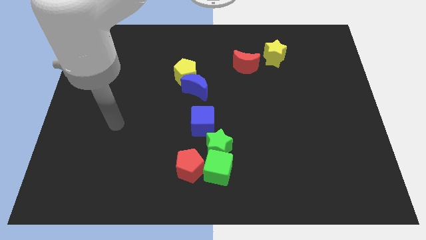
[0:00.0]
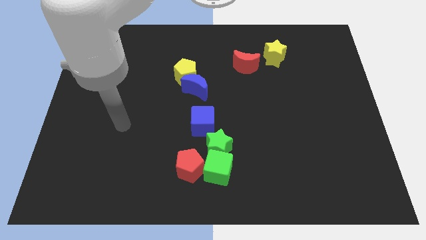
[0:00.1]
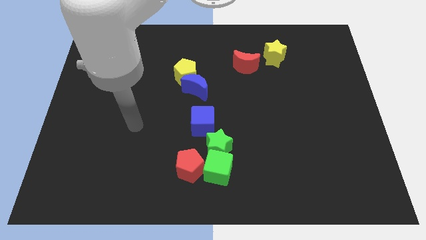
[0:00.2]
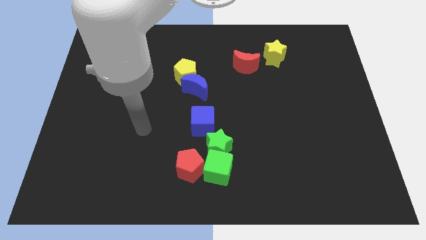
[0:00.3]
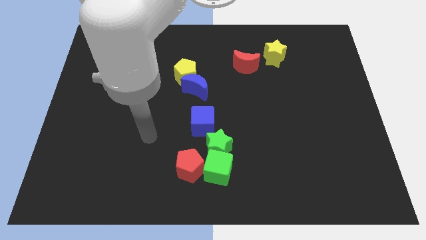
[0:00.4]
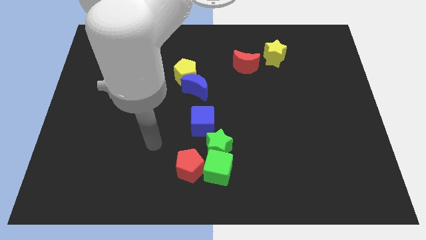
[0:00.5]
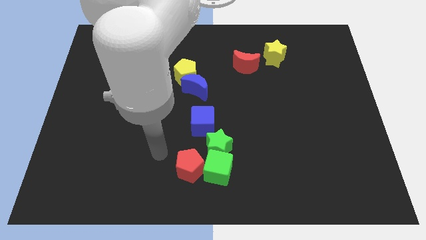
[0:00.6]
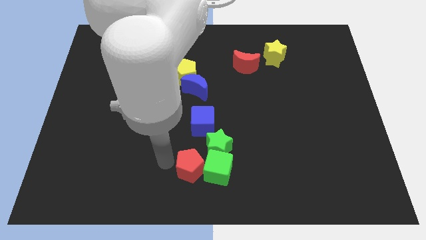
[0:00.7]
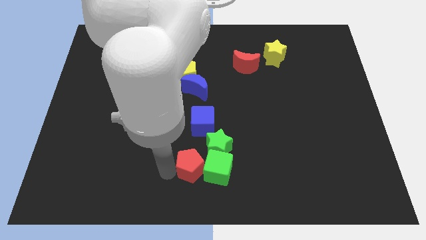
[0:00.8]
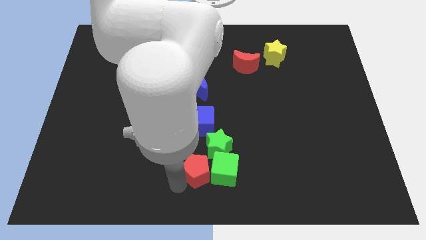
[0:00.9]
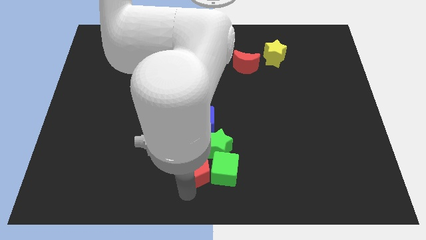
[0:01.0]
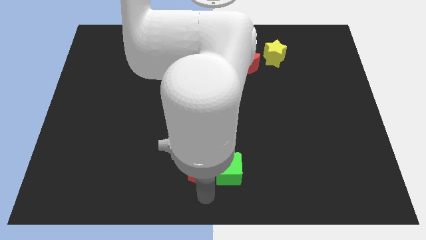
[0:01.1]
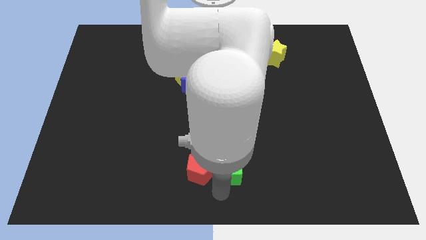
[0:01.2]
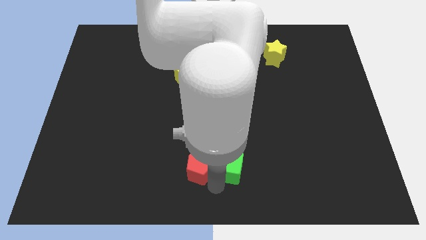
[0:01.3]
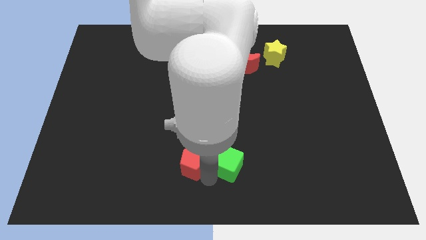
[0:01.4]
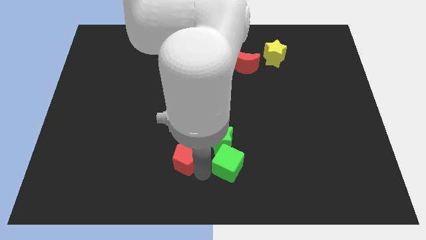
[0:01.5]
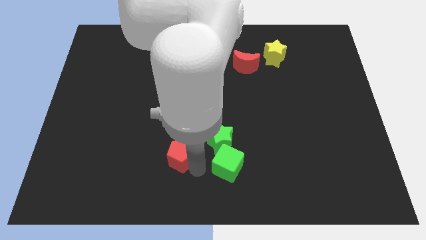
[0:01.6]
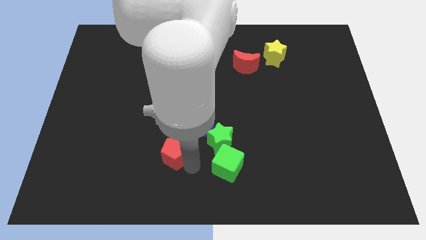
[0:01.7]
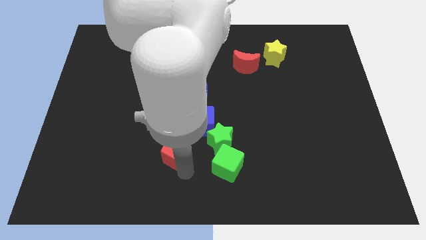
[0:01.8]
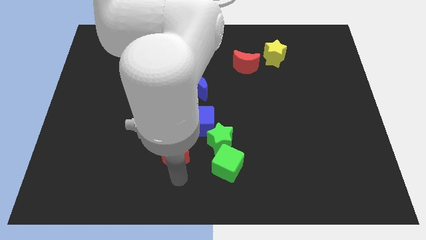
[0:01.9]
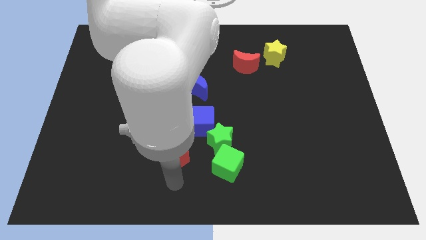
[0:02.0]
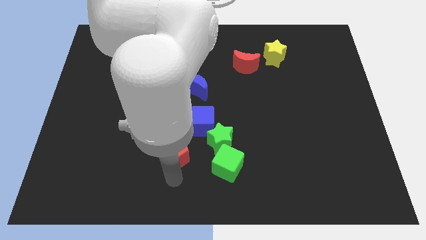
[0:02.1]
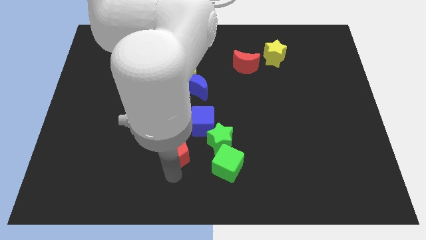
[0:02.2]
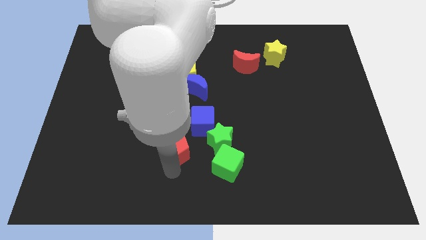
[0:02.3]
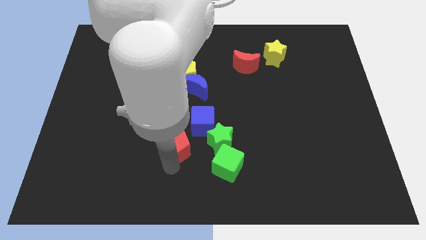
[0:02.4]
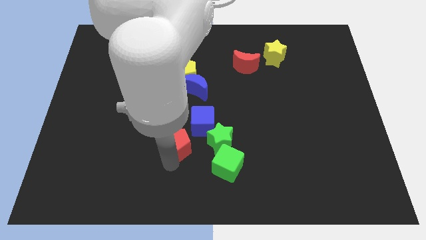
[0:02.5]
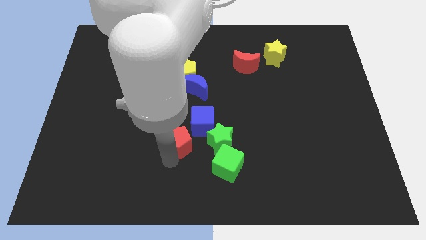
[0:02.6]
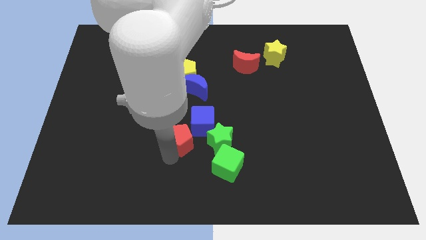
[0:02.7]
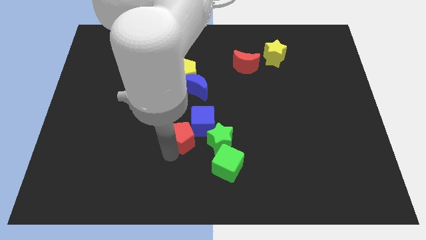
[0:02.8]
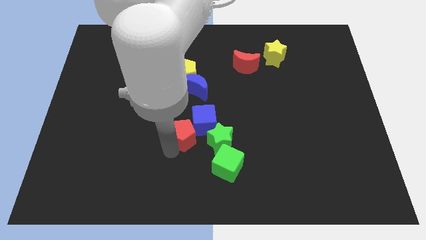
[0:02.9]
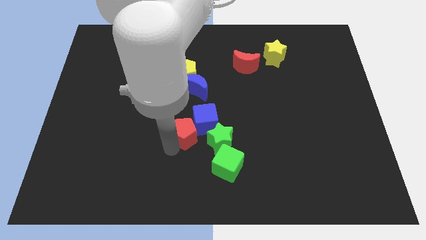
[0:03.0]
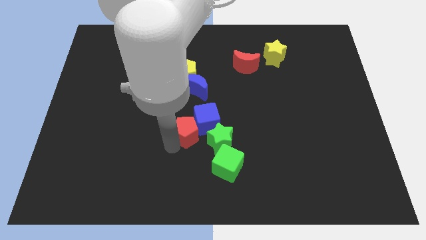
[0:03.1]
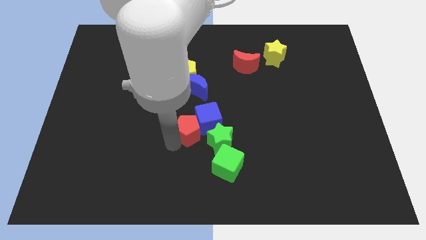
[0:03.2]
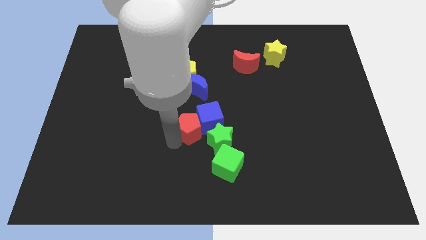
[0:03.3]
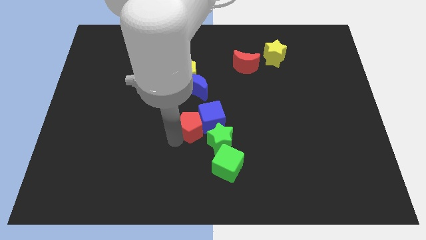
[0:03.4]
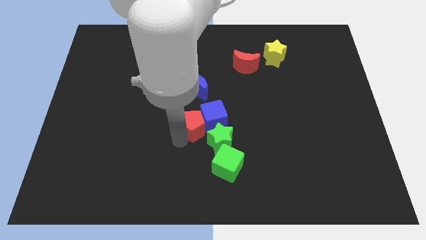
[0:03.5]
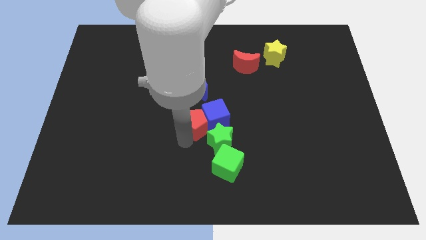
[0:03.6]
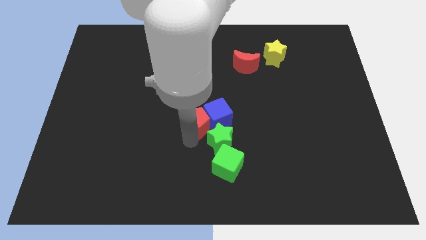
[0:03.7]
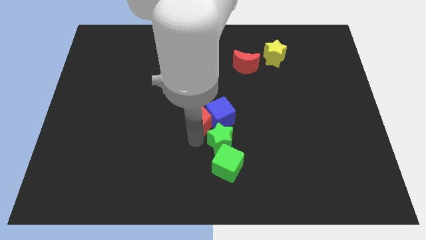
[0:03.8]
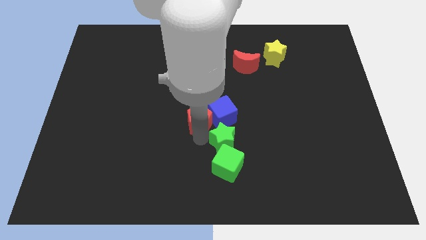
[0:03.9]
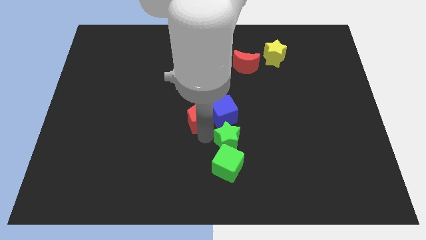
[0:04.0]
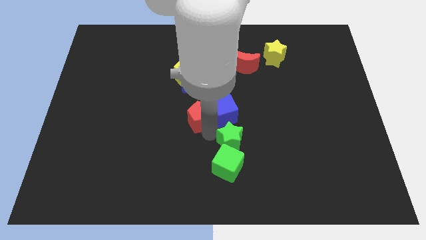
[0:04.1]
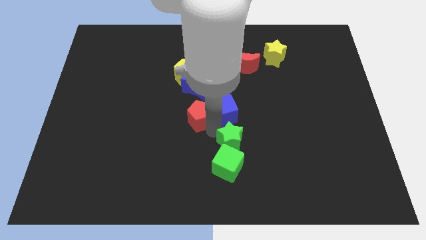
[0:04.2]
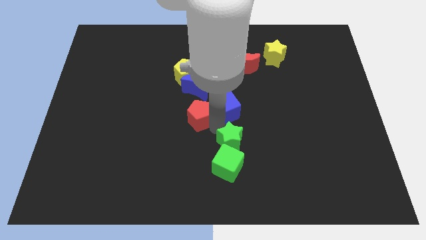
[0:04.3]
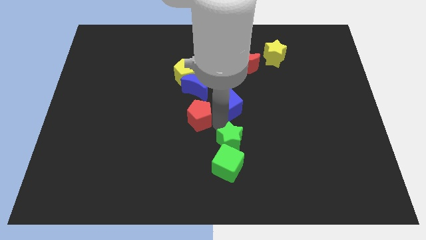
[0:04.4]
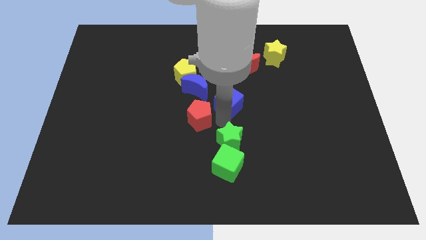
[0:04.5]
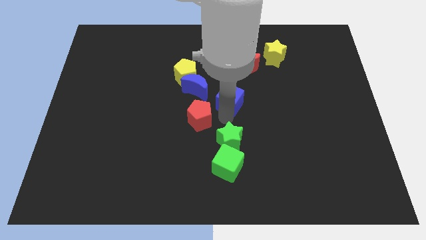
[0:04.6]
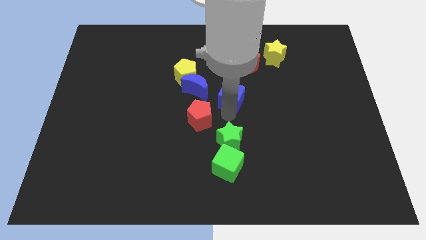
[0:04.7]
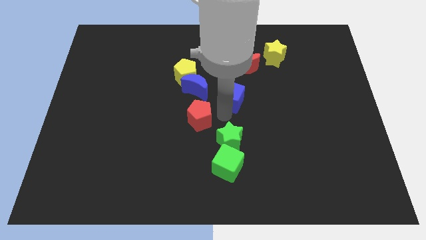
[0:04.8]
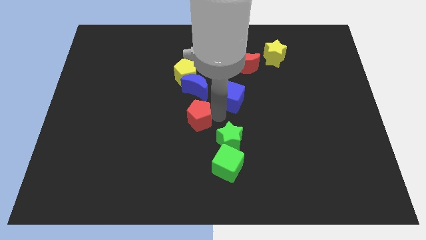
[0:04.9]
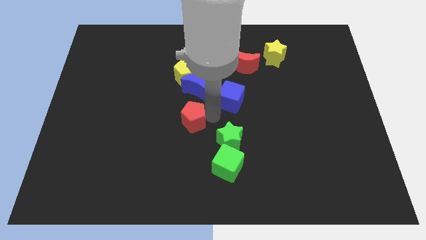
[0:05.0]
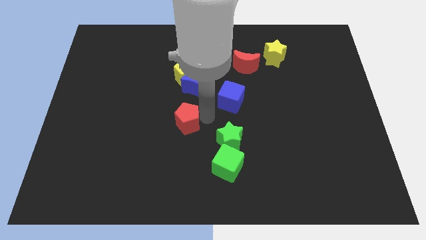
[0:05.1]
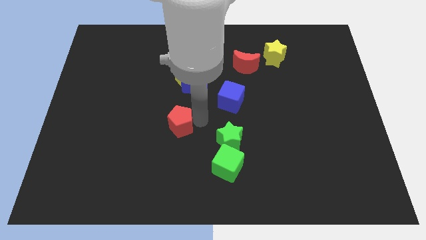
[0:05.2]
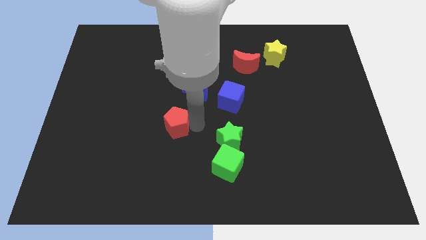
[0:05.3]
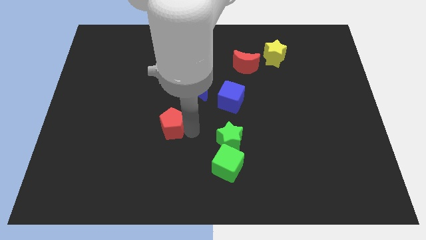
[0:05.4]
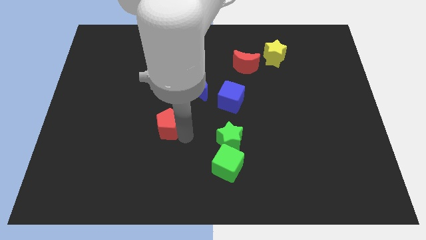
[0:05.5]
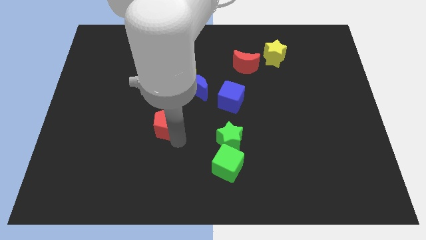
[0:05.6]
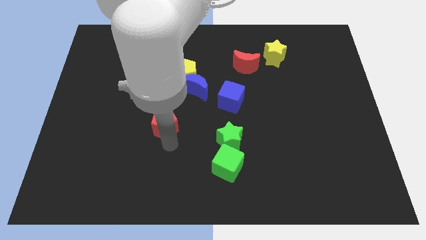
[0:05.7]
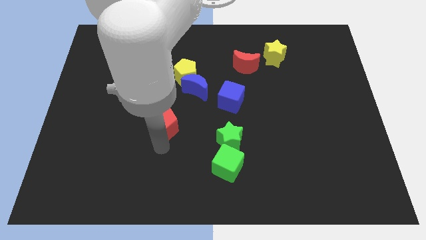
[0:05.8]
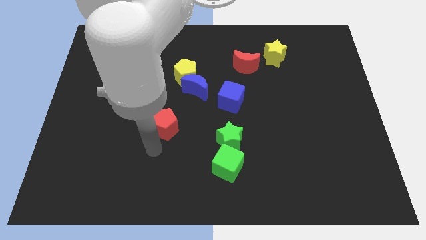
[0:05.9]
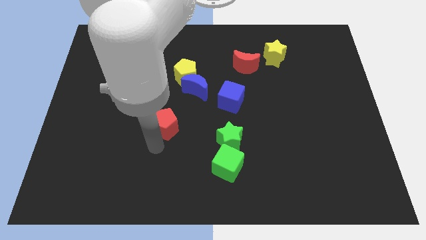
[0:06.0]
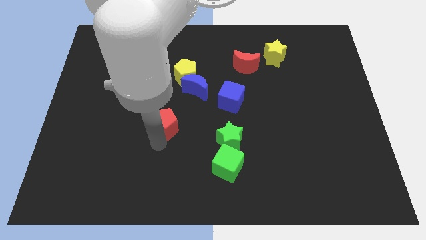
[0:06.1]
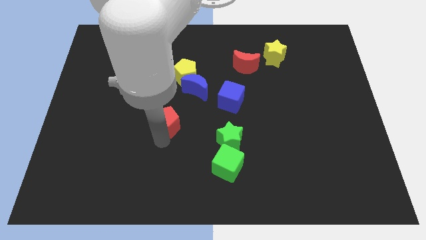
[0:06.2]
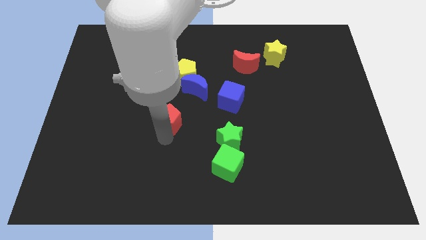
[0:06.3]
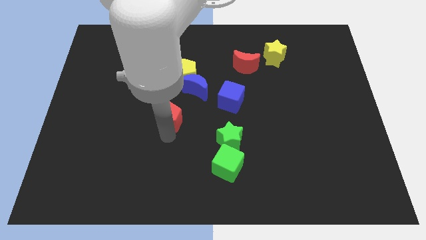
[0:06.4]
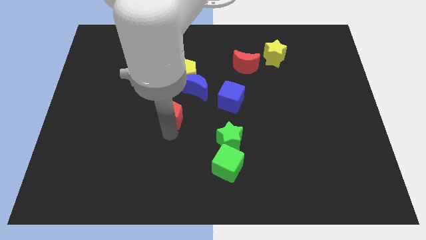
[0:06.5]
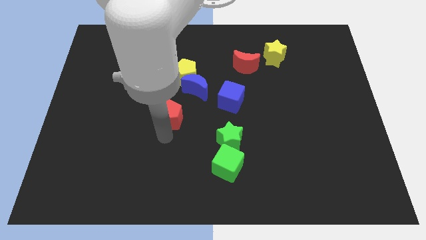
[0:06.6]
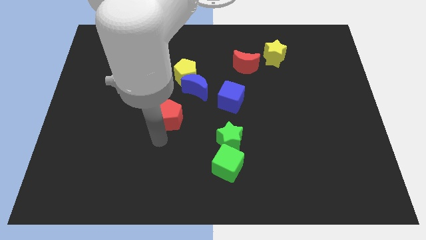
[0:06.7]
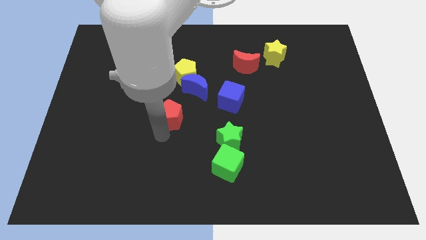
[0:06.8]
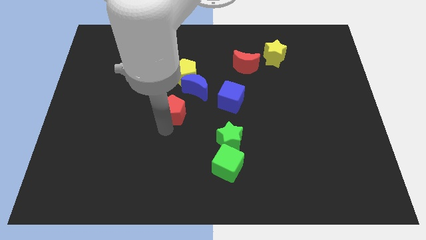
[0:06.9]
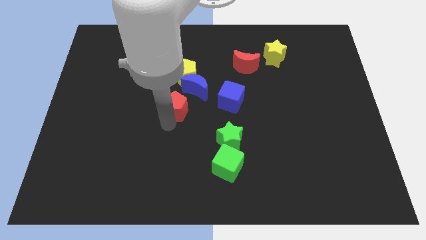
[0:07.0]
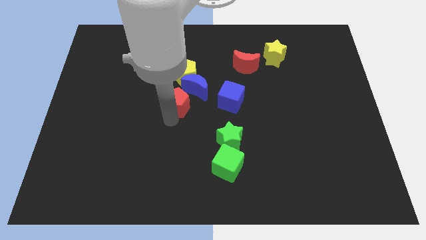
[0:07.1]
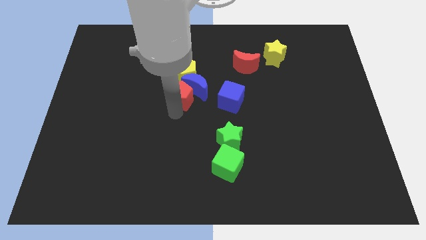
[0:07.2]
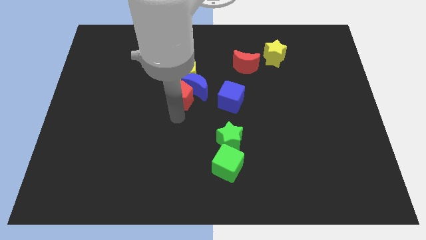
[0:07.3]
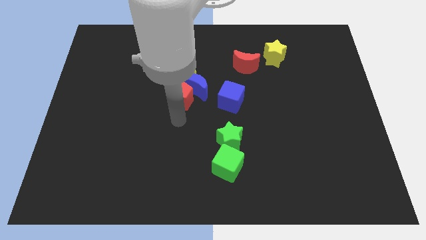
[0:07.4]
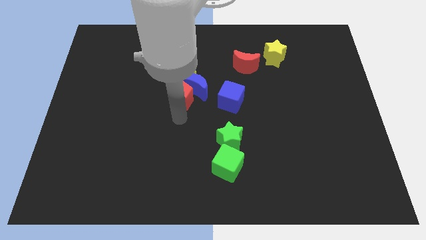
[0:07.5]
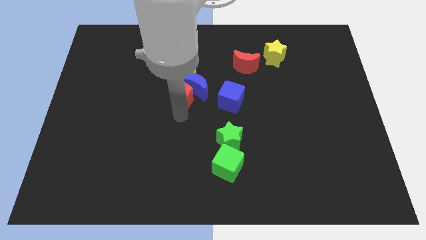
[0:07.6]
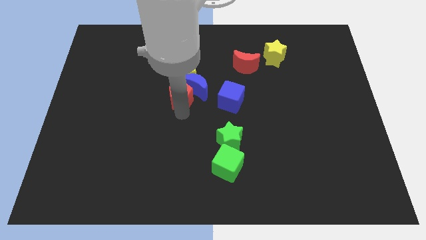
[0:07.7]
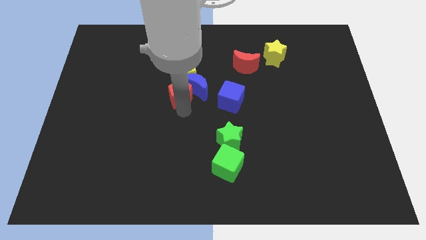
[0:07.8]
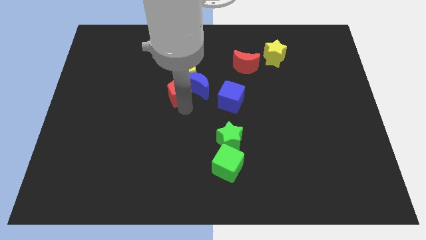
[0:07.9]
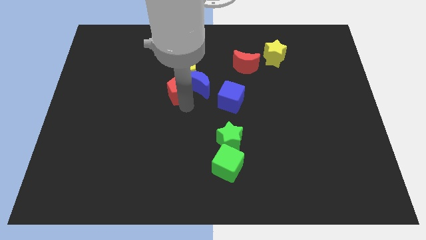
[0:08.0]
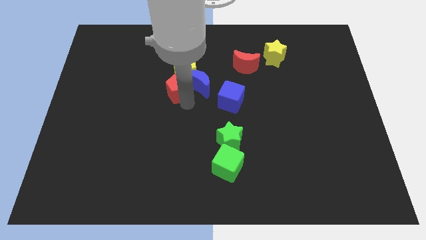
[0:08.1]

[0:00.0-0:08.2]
move the red pentagon close to the yellow pentagon
